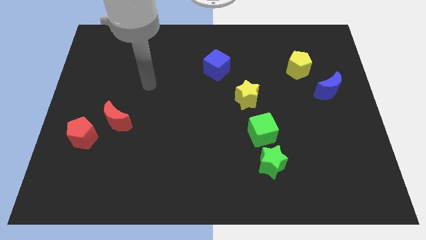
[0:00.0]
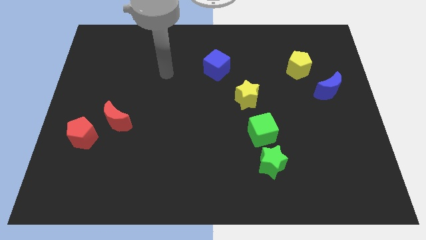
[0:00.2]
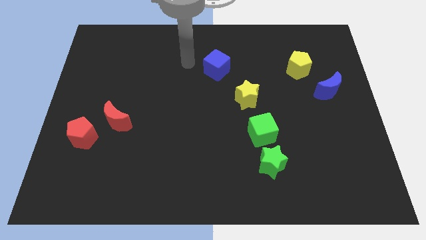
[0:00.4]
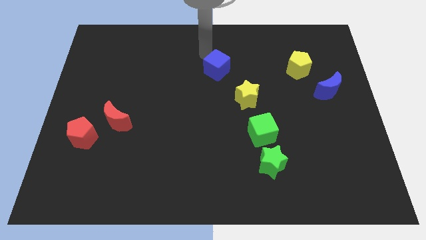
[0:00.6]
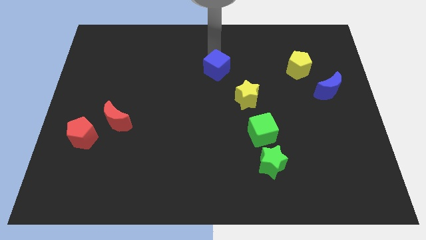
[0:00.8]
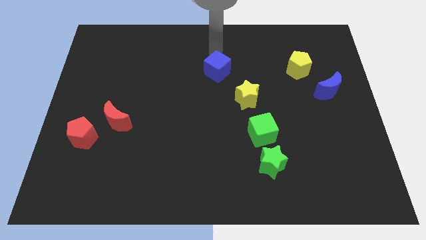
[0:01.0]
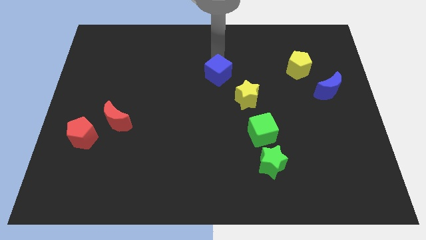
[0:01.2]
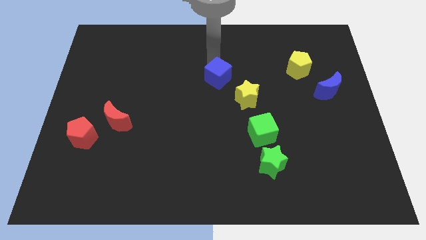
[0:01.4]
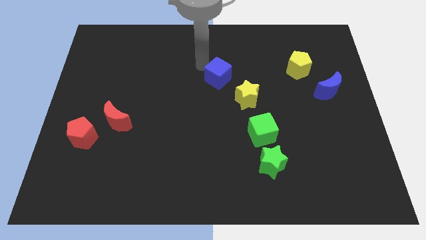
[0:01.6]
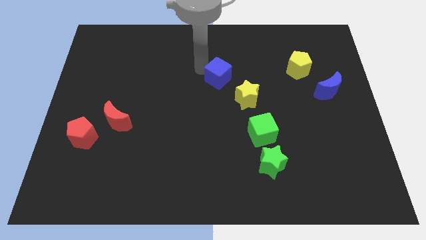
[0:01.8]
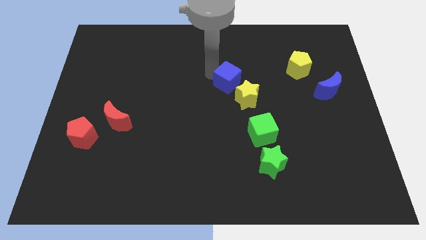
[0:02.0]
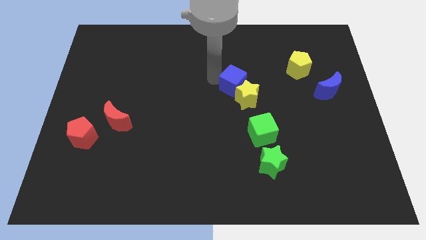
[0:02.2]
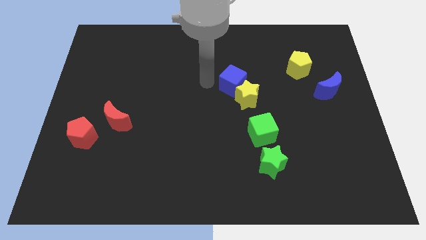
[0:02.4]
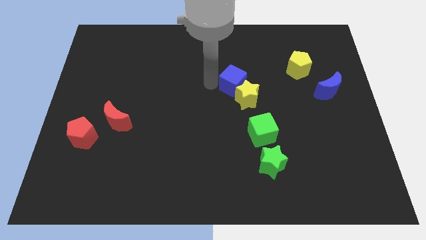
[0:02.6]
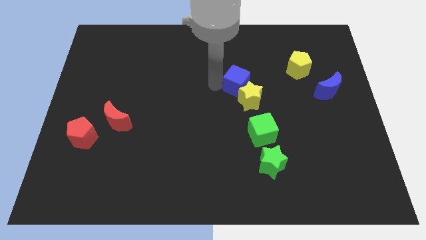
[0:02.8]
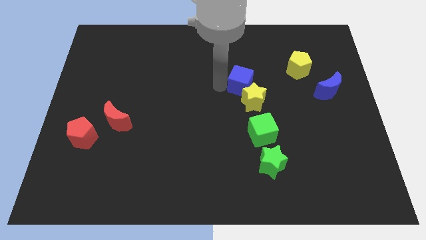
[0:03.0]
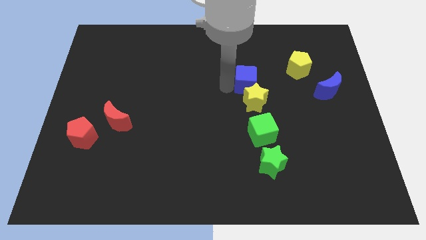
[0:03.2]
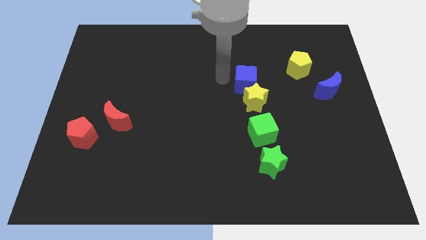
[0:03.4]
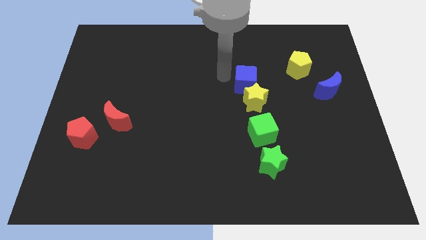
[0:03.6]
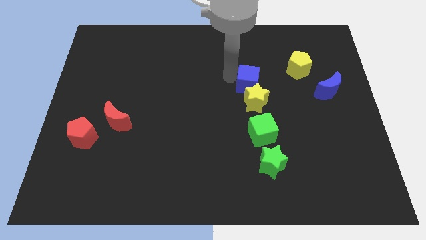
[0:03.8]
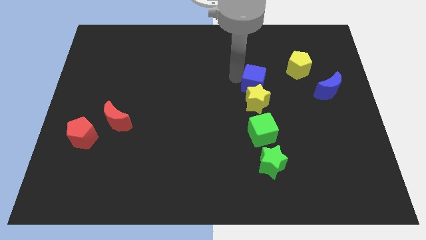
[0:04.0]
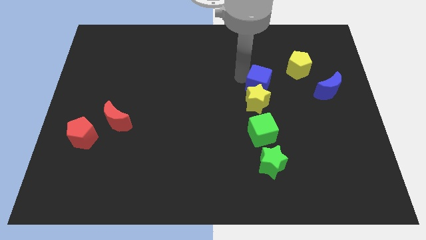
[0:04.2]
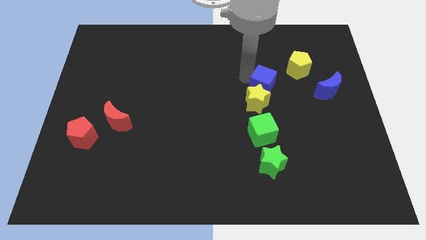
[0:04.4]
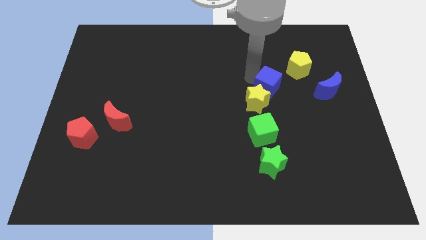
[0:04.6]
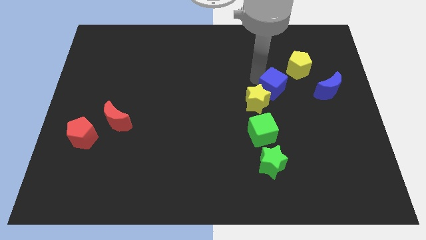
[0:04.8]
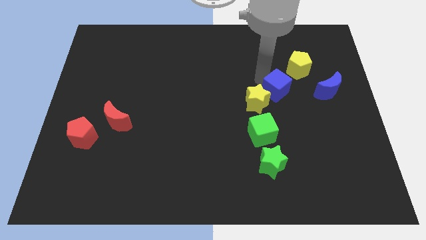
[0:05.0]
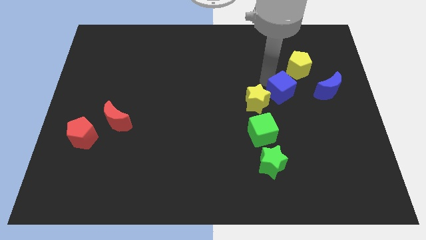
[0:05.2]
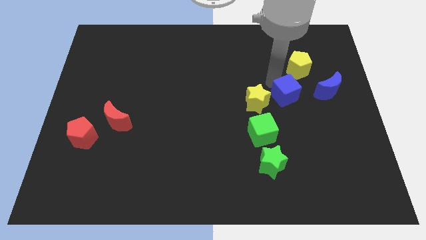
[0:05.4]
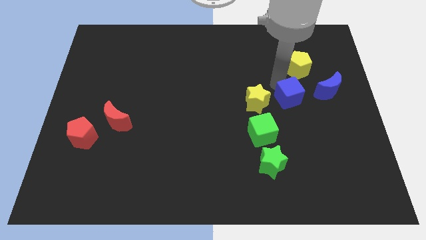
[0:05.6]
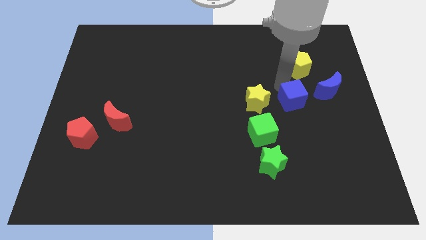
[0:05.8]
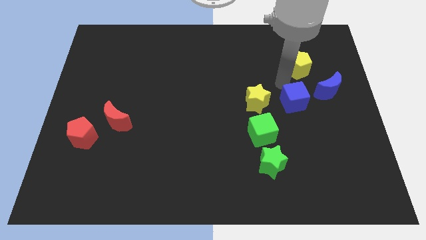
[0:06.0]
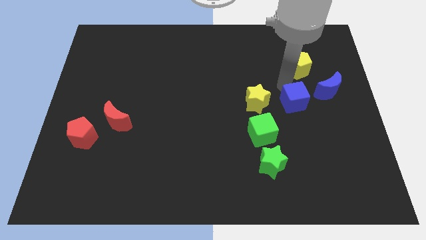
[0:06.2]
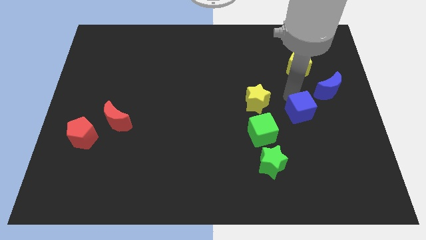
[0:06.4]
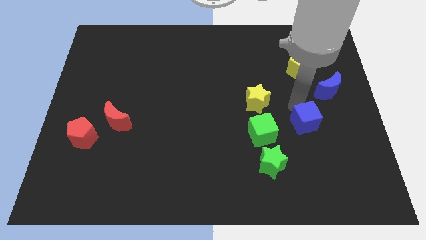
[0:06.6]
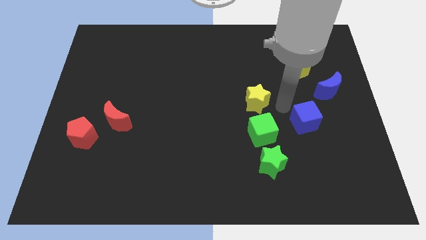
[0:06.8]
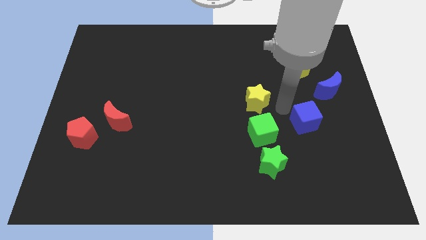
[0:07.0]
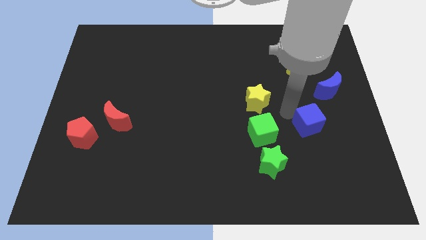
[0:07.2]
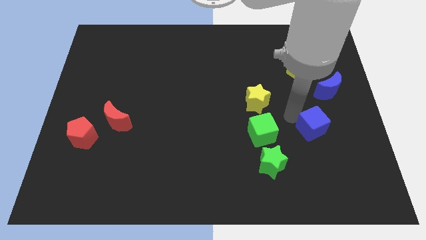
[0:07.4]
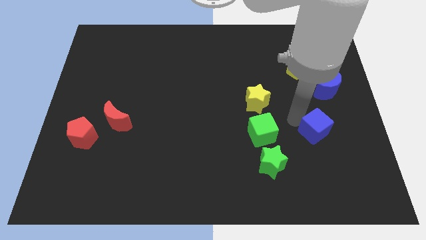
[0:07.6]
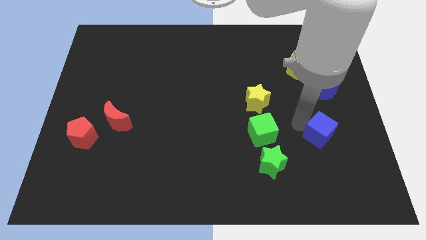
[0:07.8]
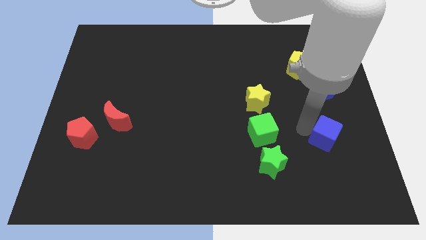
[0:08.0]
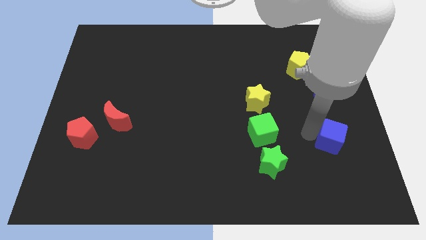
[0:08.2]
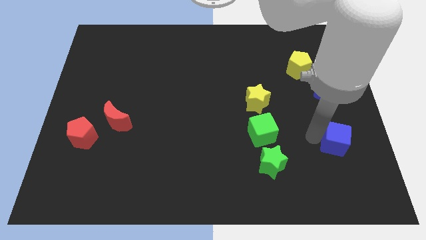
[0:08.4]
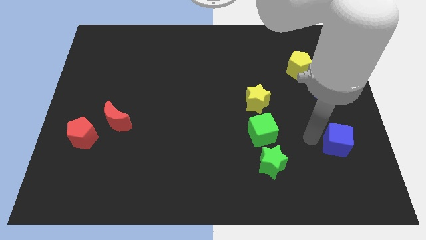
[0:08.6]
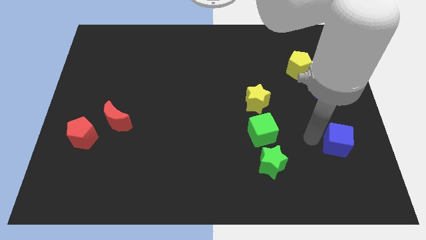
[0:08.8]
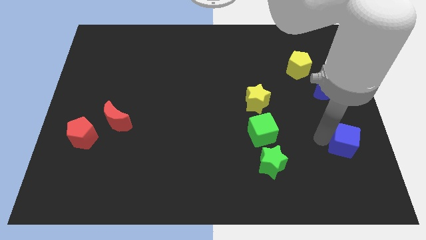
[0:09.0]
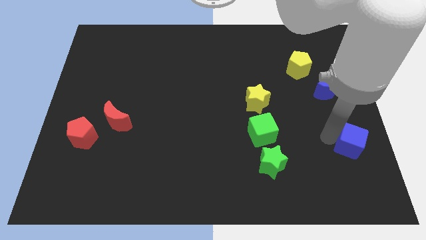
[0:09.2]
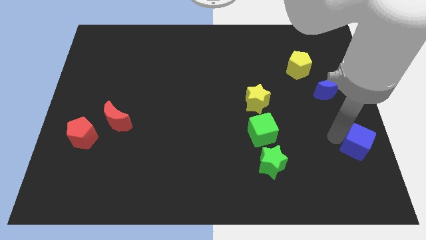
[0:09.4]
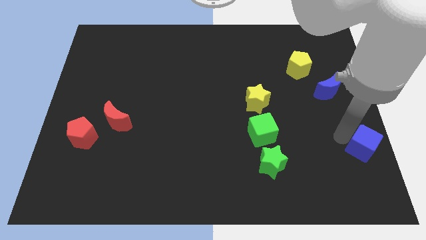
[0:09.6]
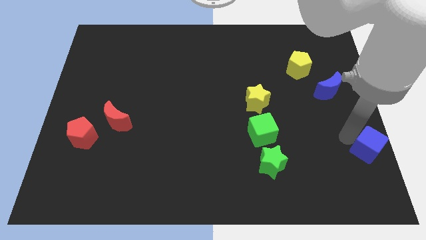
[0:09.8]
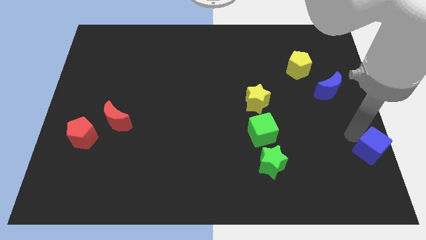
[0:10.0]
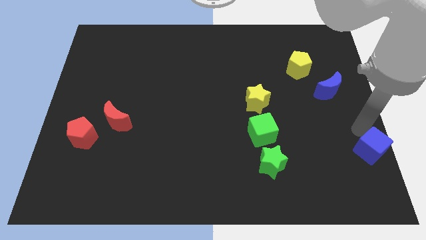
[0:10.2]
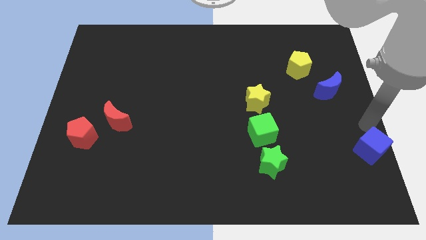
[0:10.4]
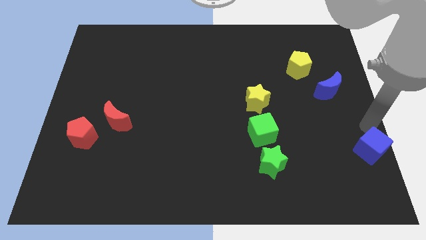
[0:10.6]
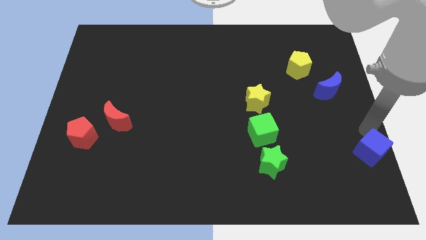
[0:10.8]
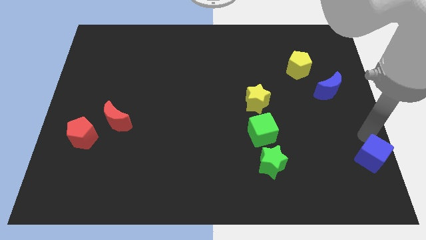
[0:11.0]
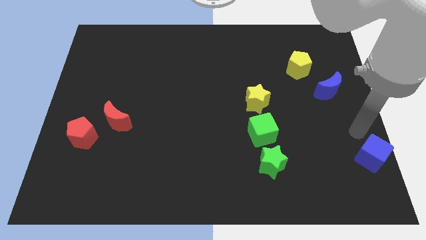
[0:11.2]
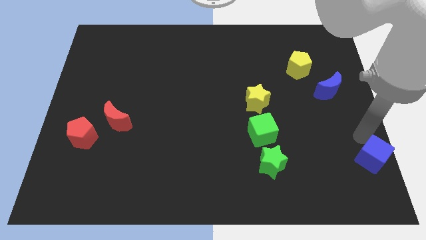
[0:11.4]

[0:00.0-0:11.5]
push the blue cube to the bottom right of the board
